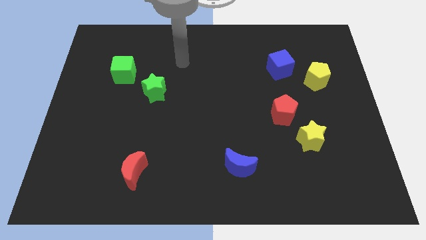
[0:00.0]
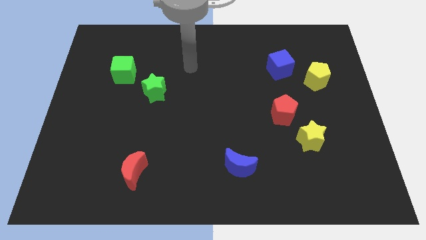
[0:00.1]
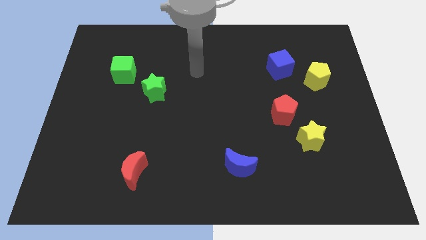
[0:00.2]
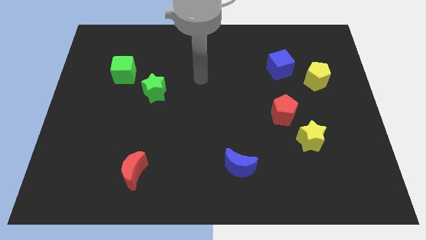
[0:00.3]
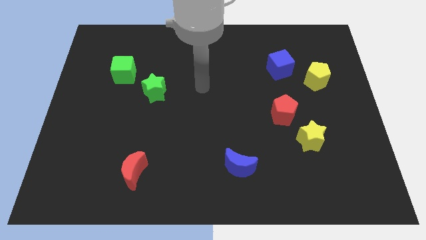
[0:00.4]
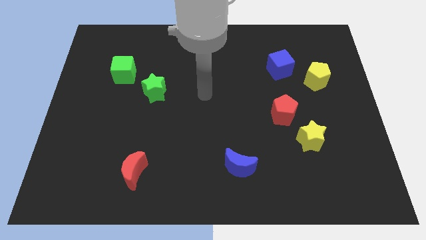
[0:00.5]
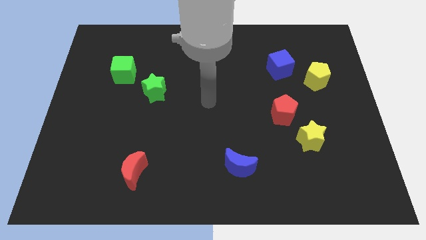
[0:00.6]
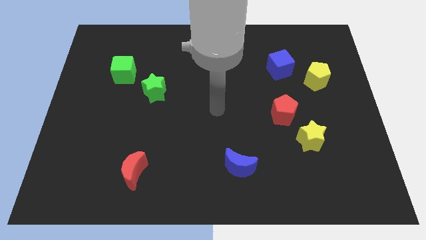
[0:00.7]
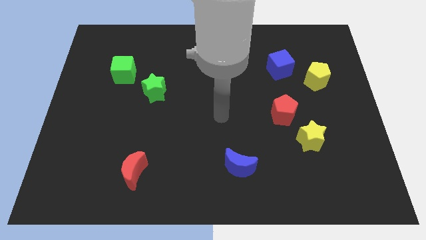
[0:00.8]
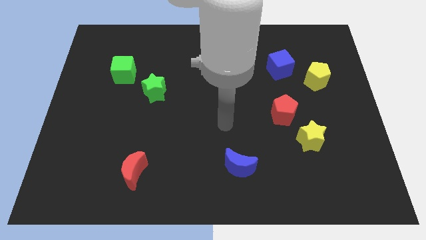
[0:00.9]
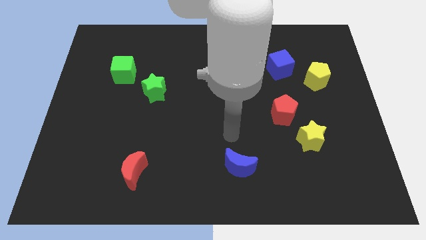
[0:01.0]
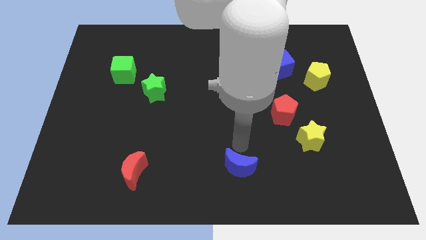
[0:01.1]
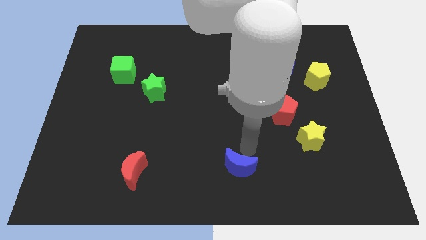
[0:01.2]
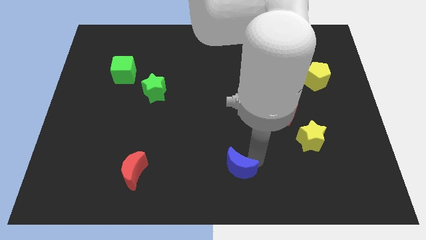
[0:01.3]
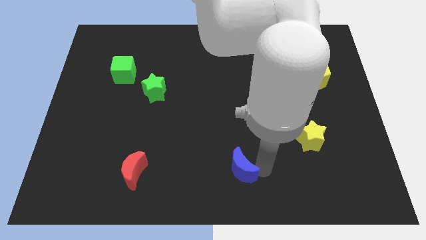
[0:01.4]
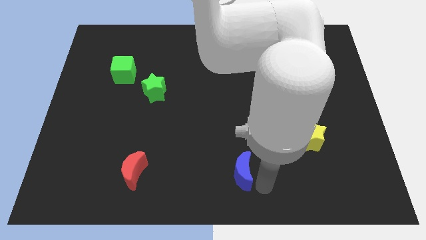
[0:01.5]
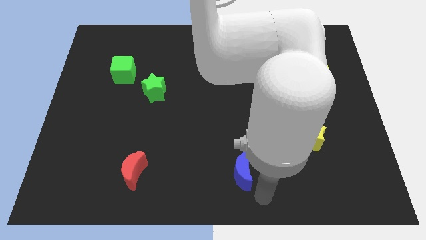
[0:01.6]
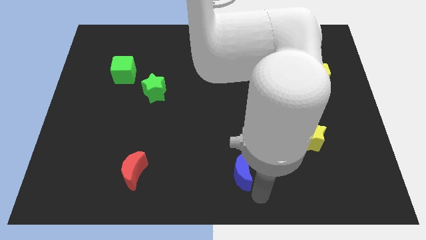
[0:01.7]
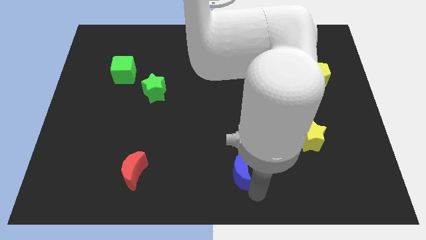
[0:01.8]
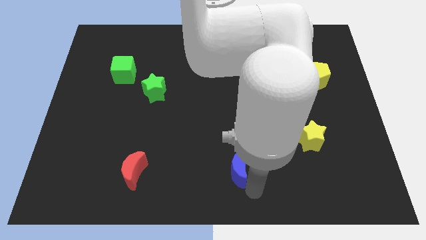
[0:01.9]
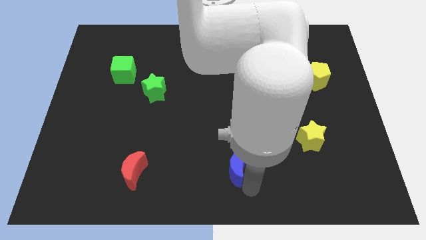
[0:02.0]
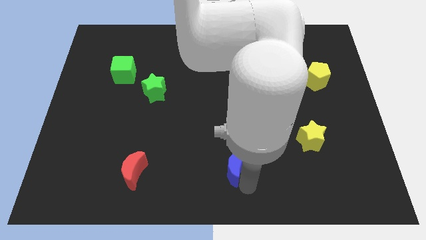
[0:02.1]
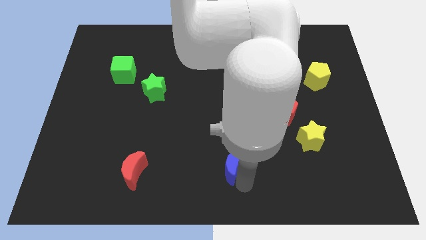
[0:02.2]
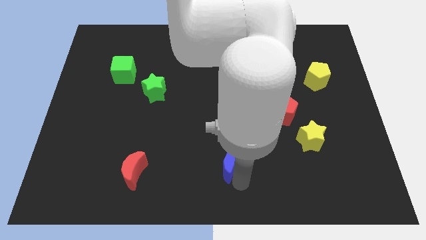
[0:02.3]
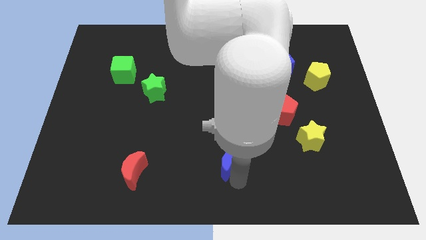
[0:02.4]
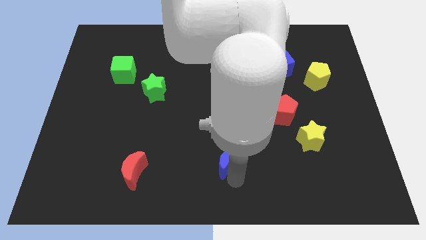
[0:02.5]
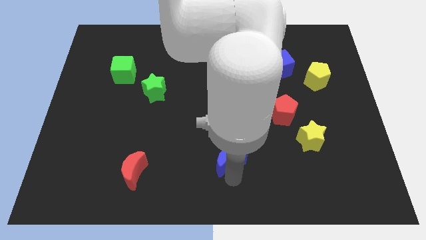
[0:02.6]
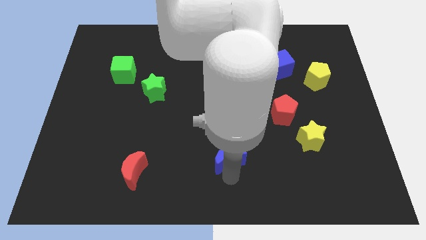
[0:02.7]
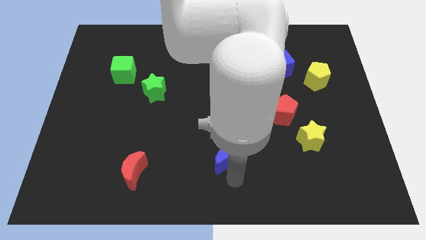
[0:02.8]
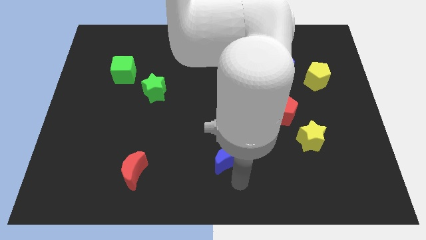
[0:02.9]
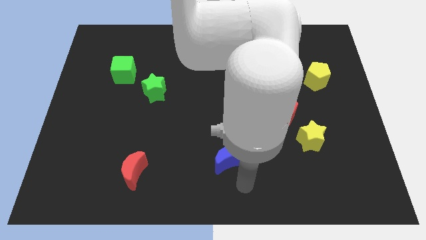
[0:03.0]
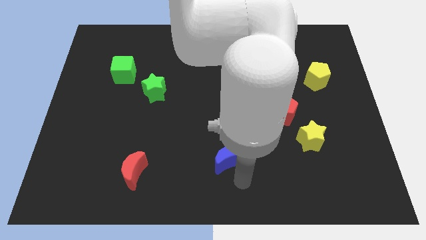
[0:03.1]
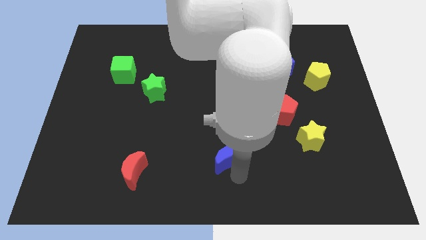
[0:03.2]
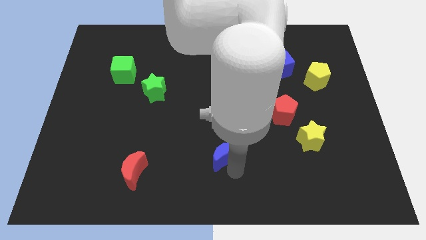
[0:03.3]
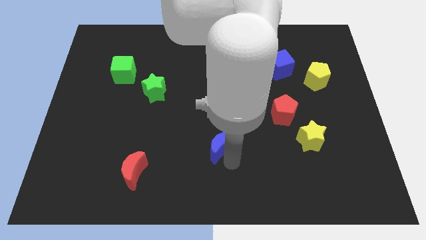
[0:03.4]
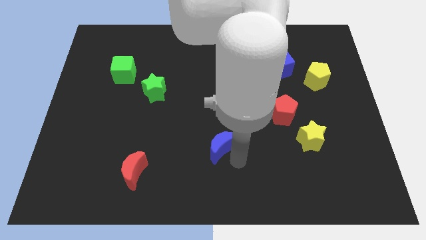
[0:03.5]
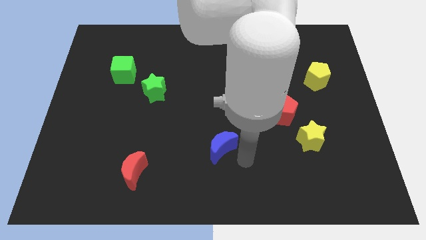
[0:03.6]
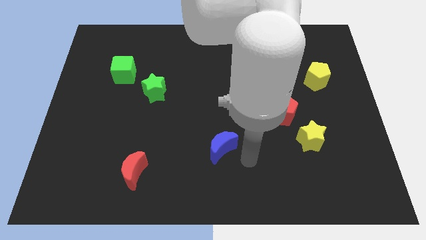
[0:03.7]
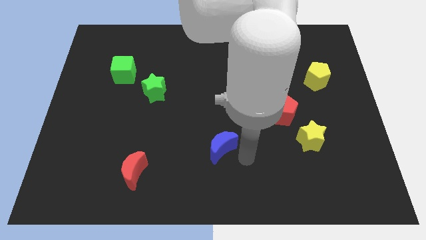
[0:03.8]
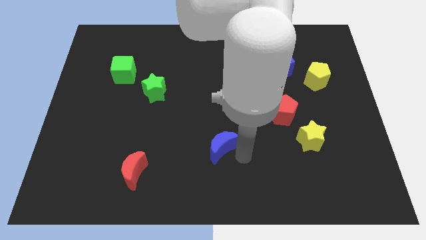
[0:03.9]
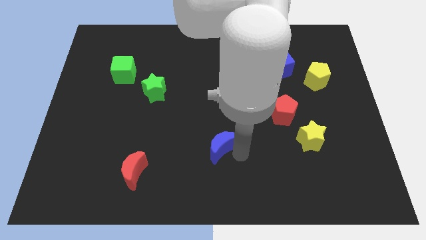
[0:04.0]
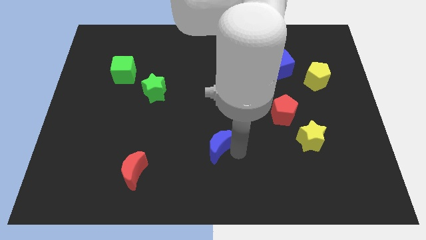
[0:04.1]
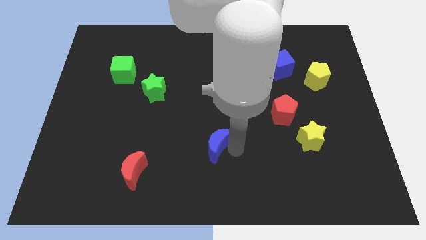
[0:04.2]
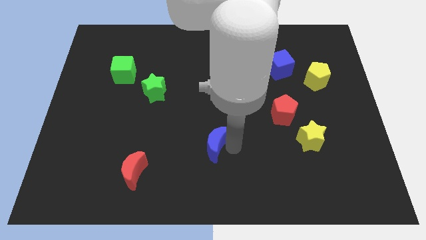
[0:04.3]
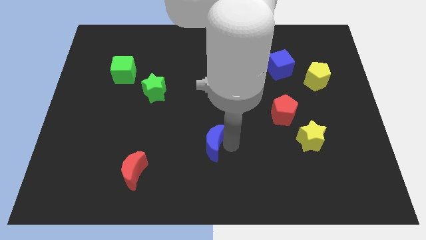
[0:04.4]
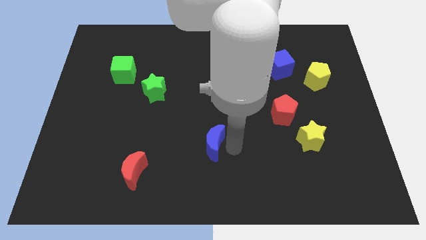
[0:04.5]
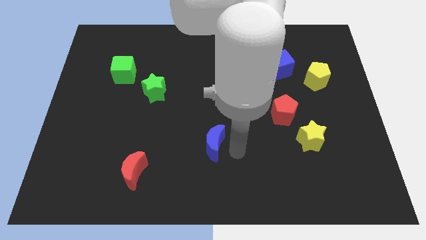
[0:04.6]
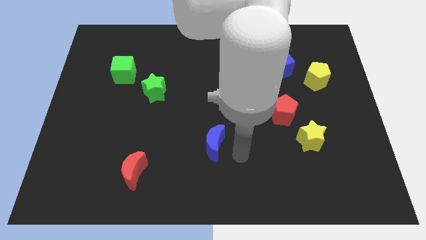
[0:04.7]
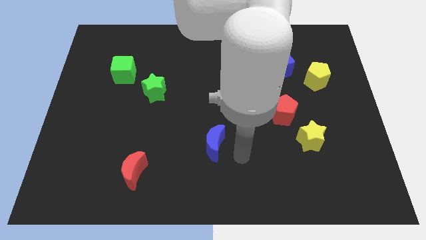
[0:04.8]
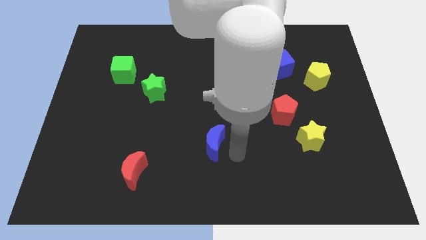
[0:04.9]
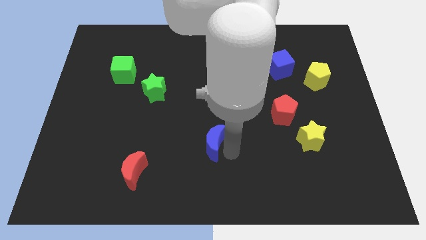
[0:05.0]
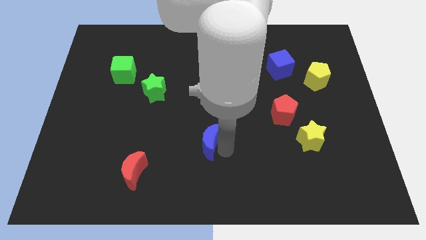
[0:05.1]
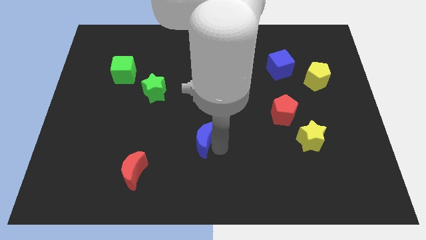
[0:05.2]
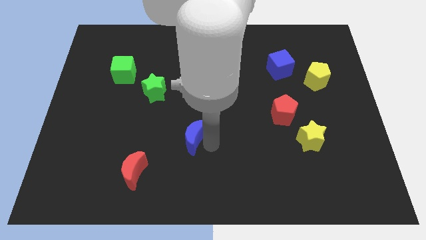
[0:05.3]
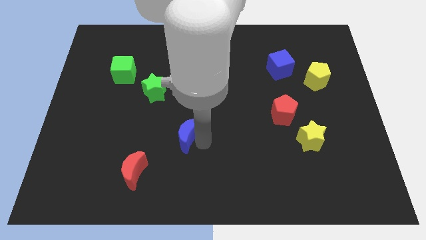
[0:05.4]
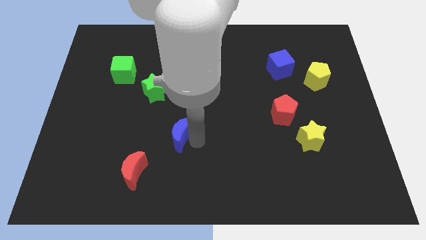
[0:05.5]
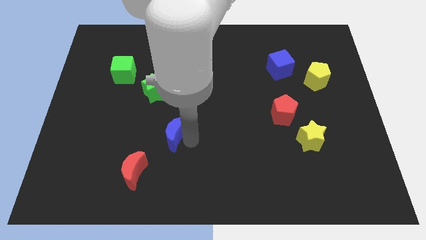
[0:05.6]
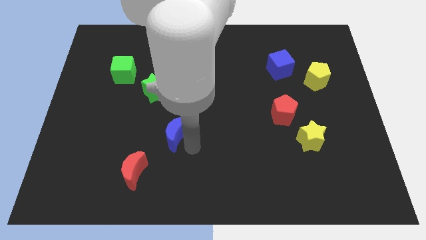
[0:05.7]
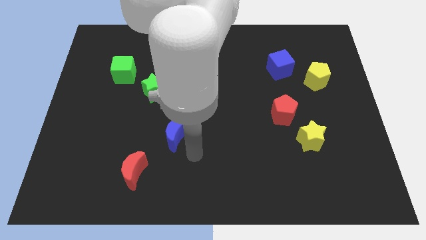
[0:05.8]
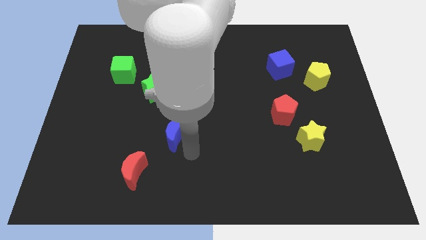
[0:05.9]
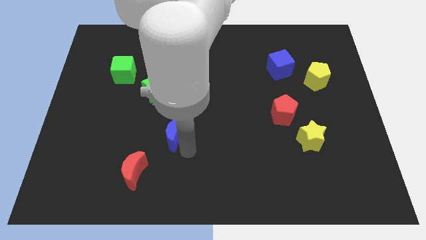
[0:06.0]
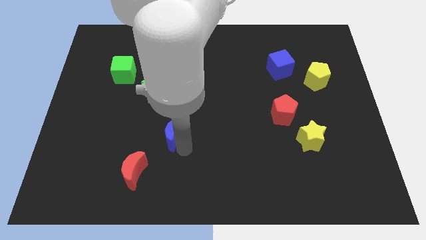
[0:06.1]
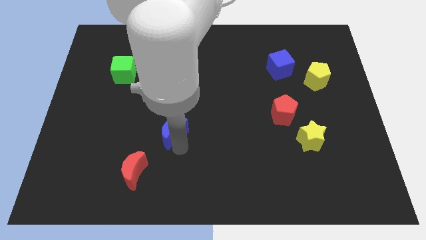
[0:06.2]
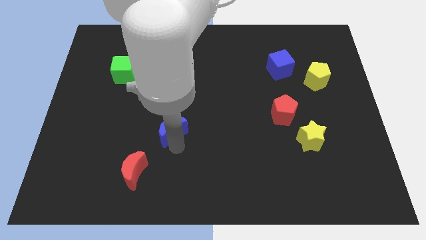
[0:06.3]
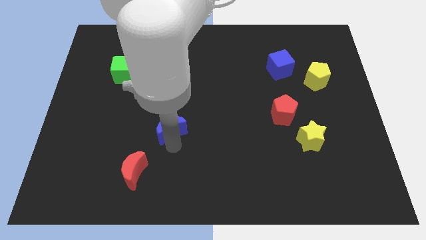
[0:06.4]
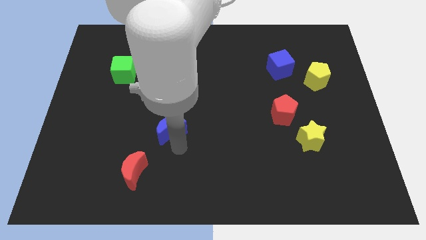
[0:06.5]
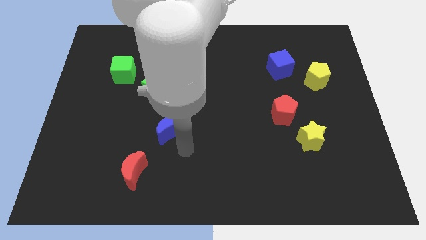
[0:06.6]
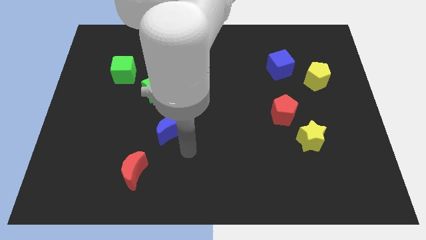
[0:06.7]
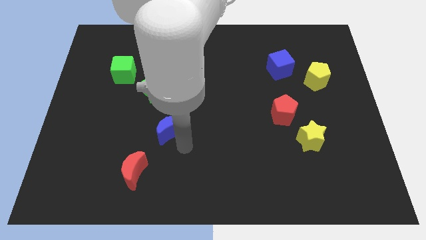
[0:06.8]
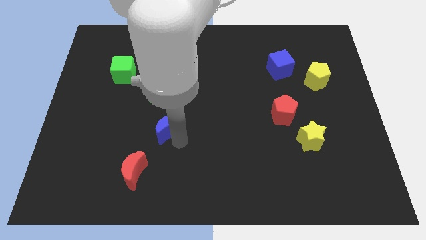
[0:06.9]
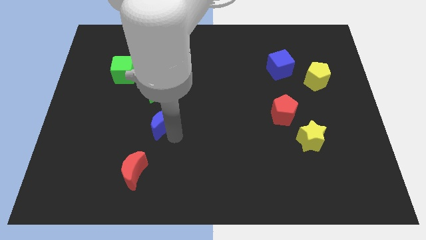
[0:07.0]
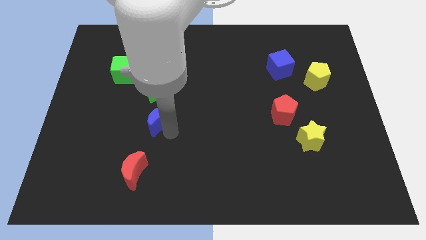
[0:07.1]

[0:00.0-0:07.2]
slide the blue moon up and then left

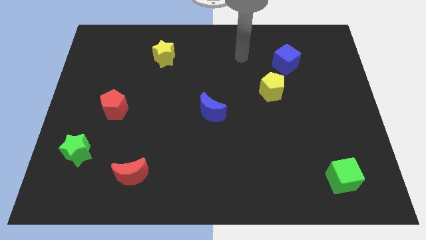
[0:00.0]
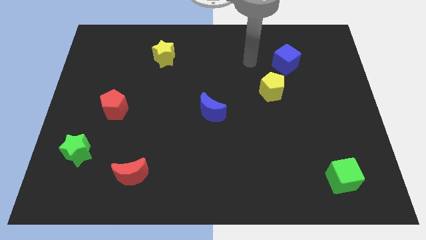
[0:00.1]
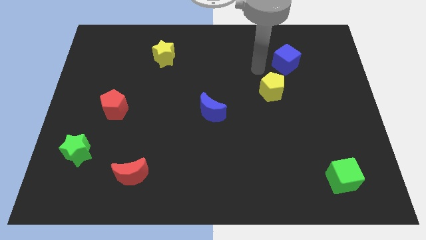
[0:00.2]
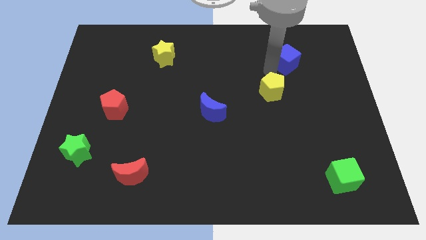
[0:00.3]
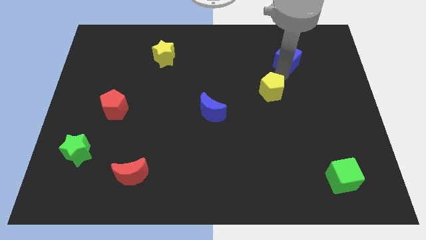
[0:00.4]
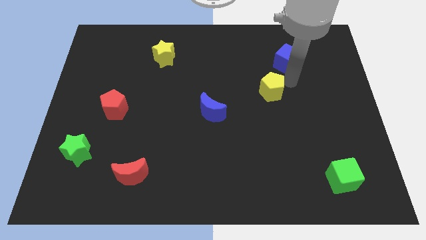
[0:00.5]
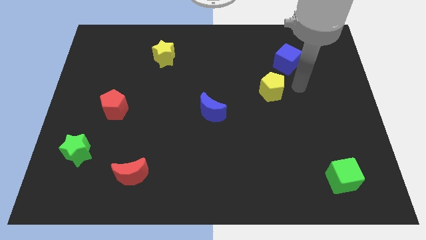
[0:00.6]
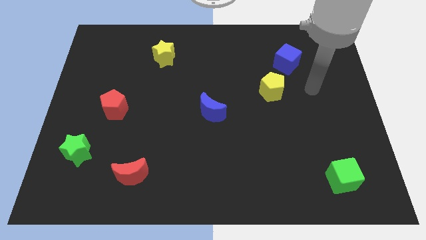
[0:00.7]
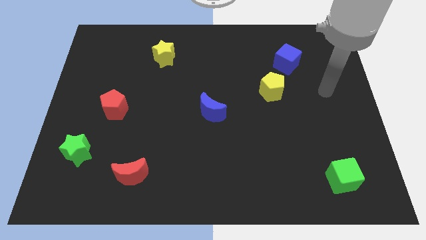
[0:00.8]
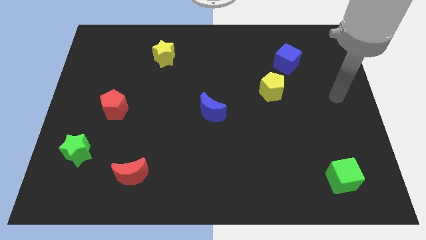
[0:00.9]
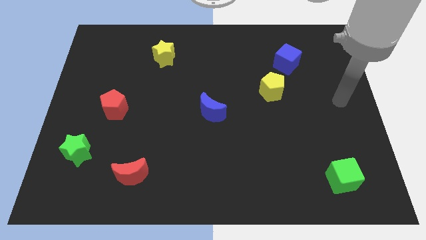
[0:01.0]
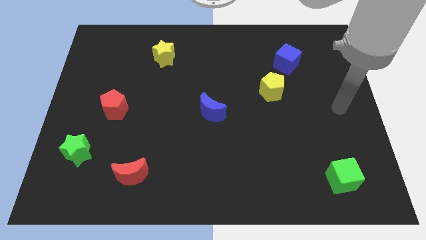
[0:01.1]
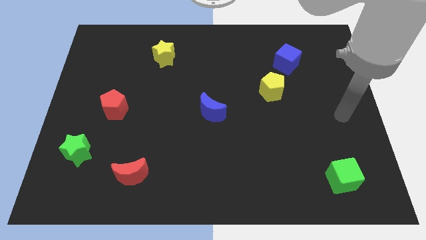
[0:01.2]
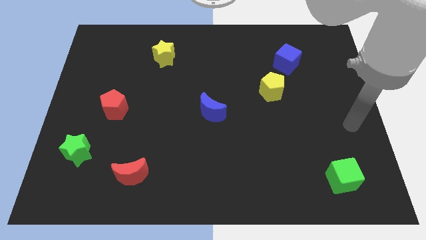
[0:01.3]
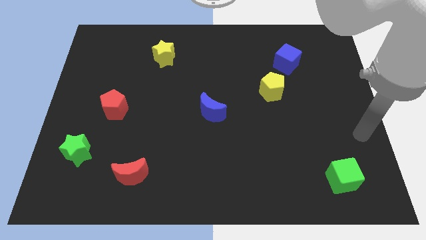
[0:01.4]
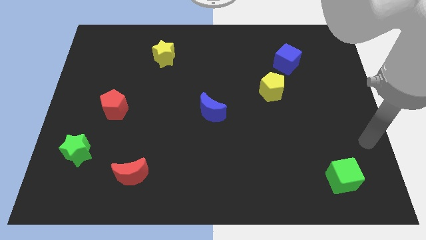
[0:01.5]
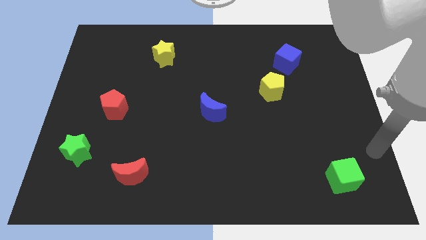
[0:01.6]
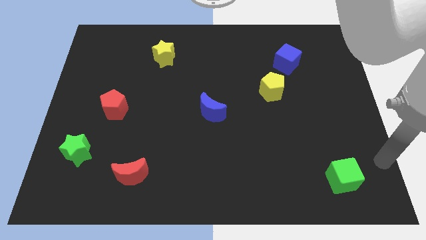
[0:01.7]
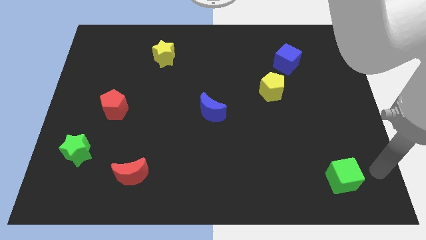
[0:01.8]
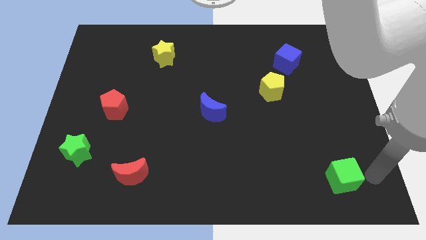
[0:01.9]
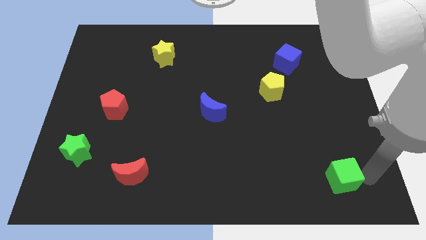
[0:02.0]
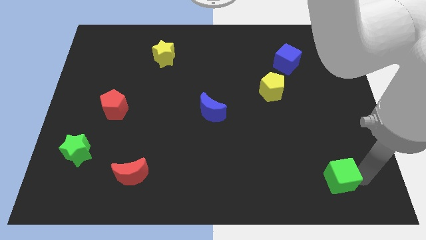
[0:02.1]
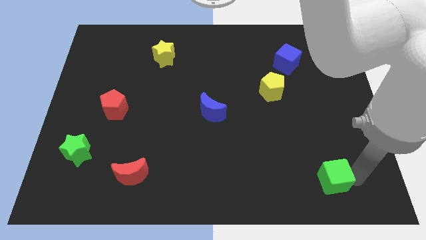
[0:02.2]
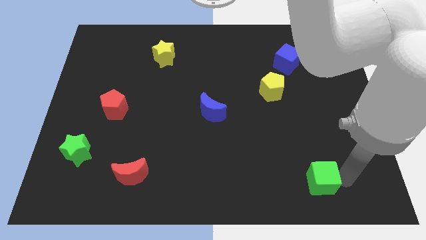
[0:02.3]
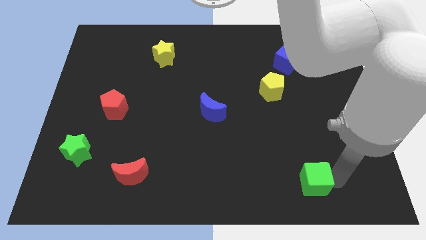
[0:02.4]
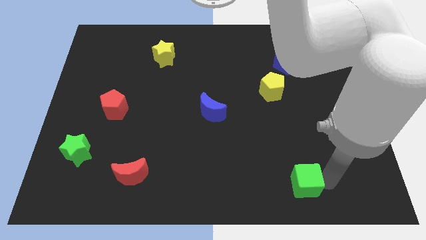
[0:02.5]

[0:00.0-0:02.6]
slide the green cube a bit to the left
